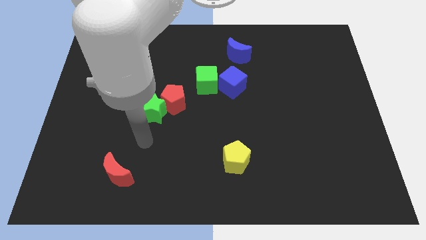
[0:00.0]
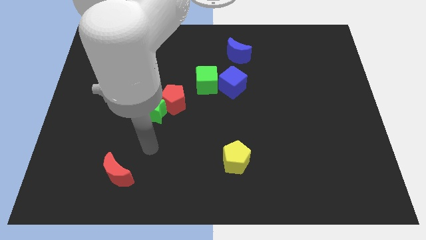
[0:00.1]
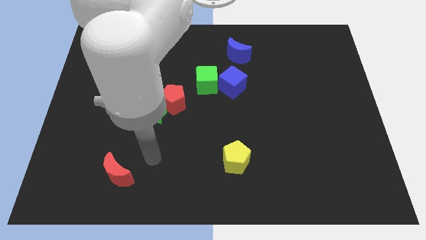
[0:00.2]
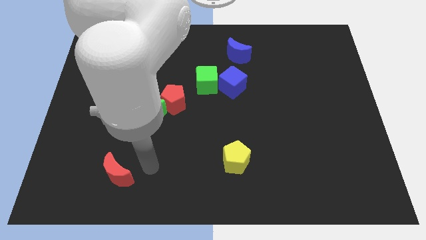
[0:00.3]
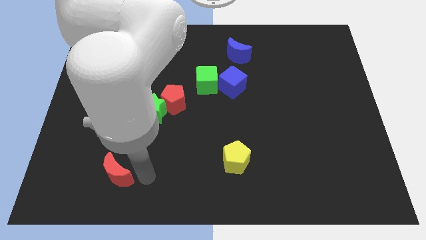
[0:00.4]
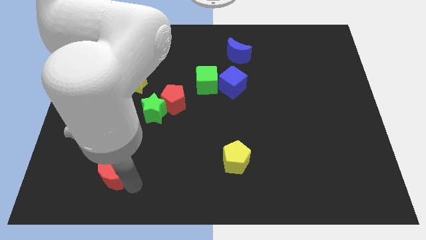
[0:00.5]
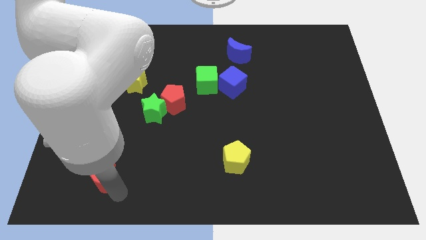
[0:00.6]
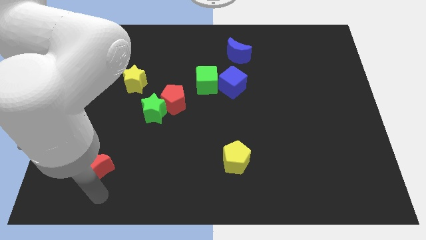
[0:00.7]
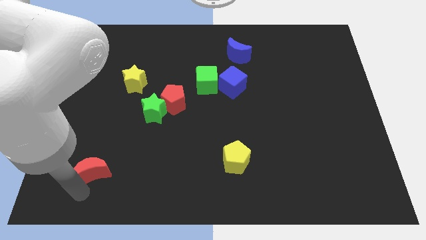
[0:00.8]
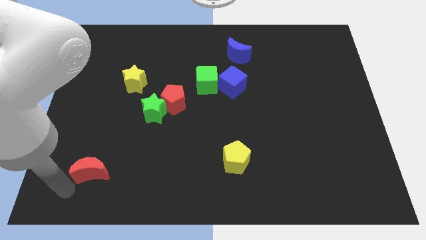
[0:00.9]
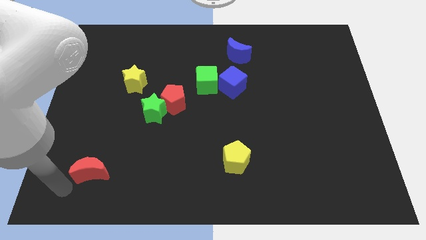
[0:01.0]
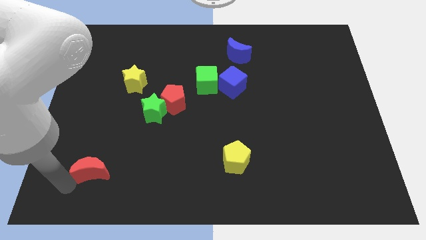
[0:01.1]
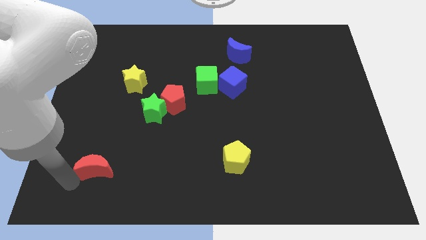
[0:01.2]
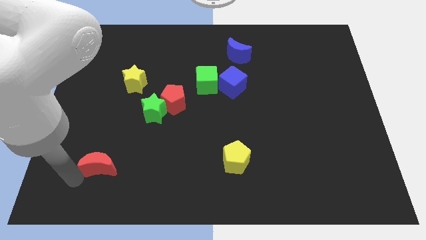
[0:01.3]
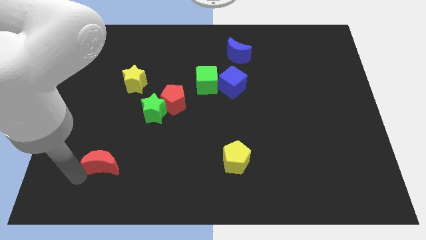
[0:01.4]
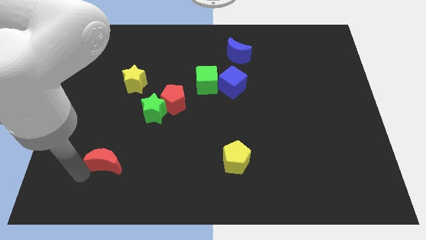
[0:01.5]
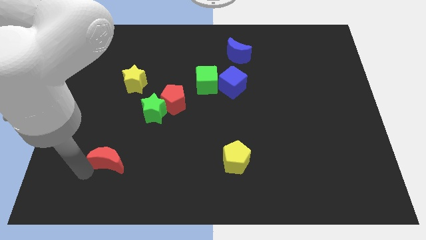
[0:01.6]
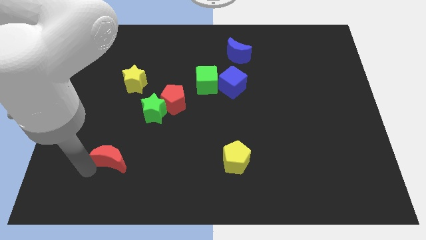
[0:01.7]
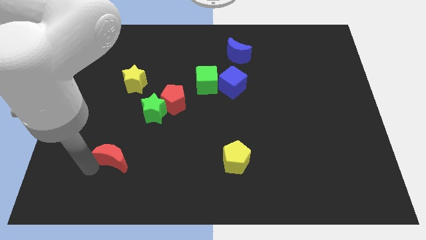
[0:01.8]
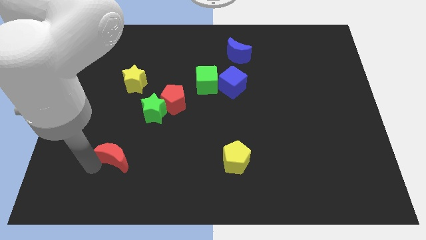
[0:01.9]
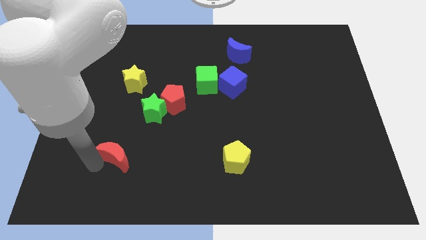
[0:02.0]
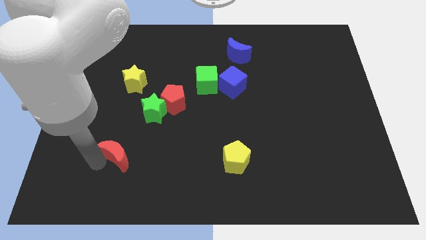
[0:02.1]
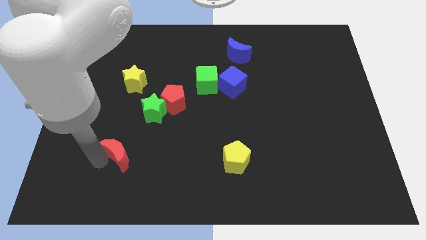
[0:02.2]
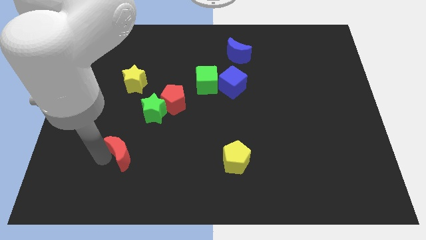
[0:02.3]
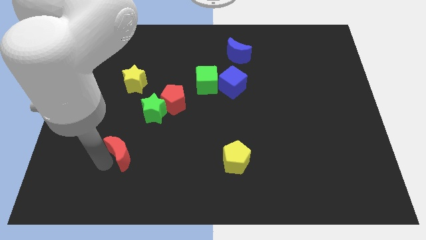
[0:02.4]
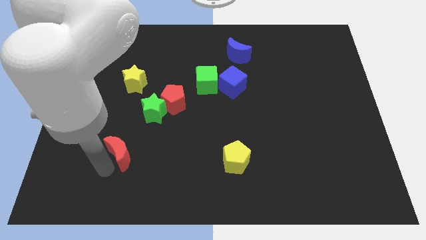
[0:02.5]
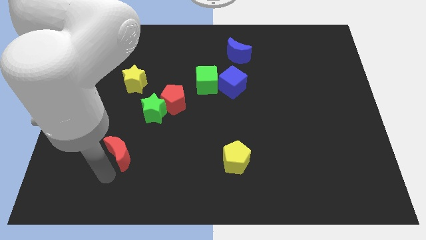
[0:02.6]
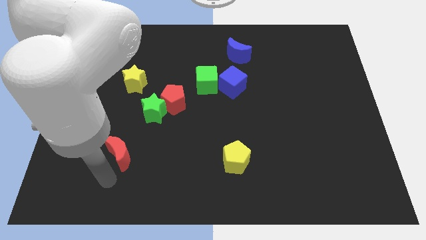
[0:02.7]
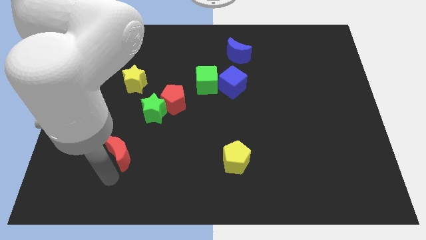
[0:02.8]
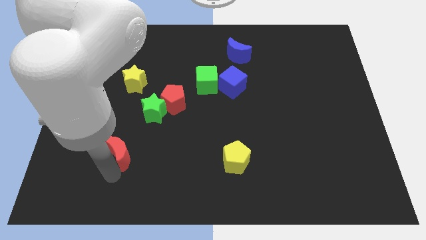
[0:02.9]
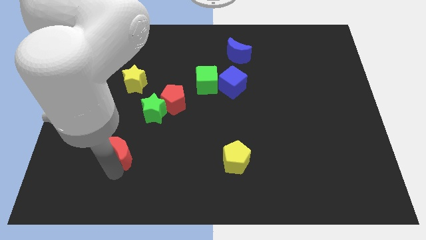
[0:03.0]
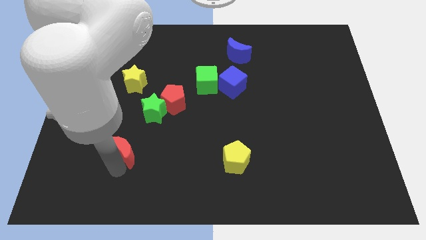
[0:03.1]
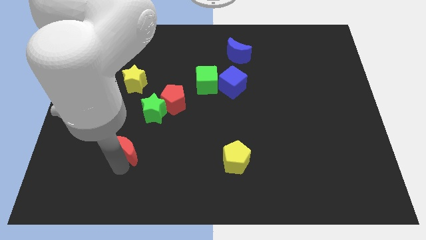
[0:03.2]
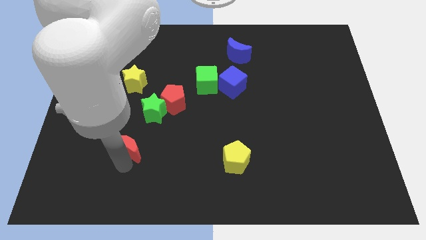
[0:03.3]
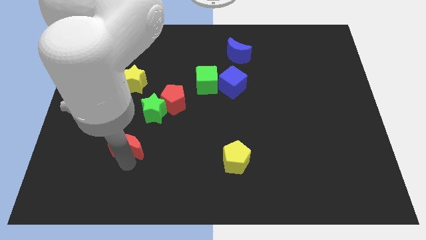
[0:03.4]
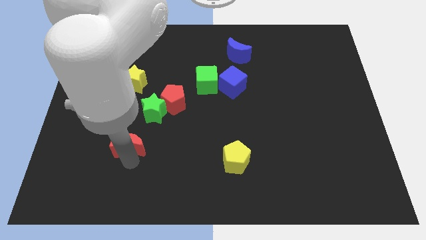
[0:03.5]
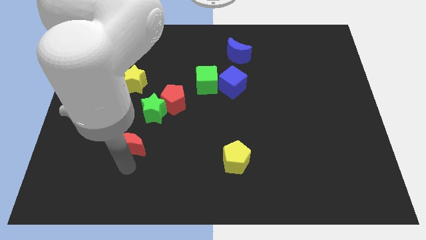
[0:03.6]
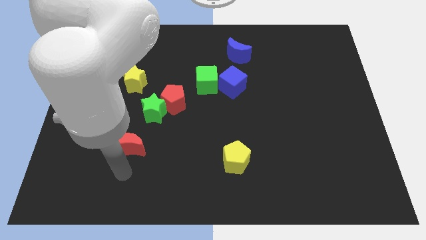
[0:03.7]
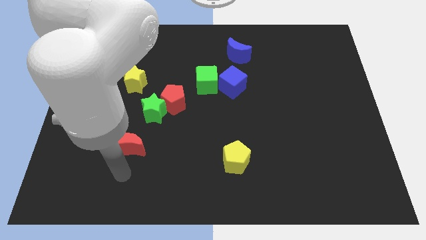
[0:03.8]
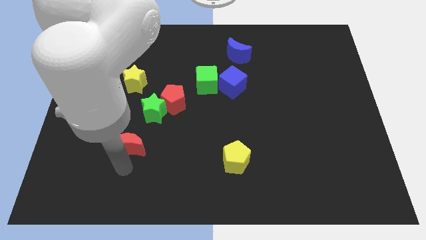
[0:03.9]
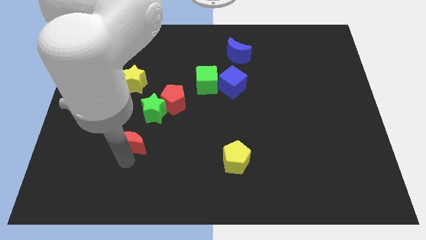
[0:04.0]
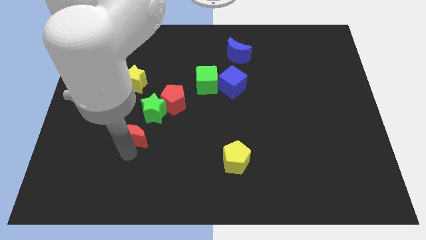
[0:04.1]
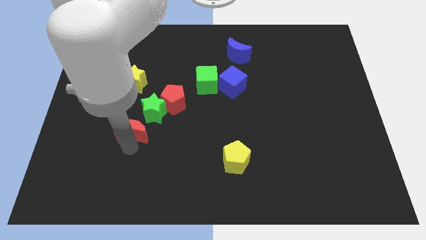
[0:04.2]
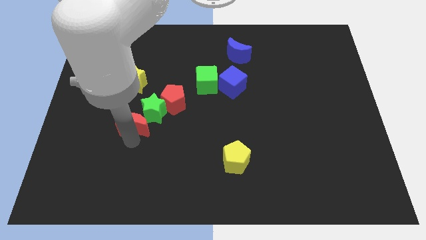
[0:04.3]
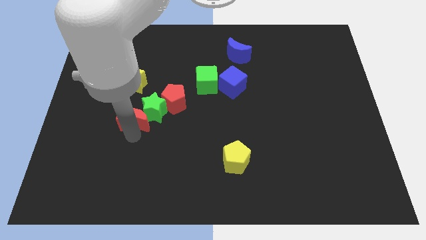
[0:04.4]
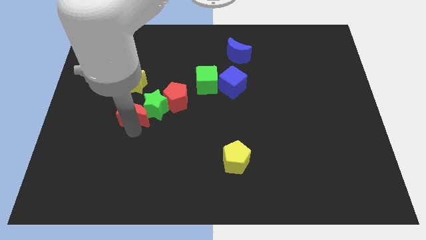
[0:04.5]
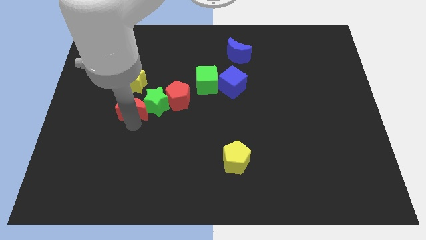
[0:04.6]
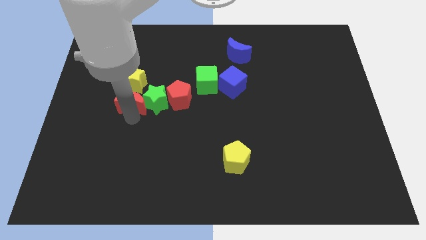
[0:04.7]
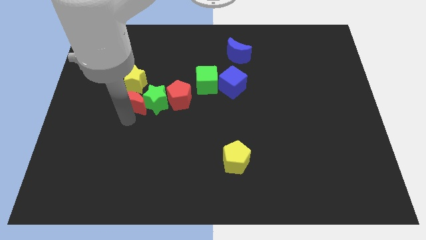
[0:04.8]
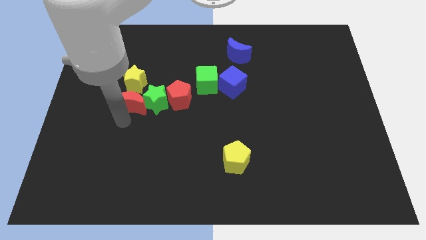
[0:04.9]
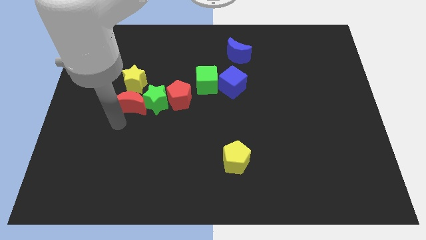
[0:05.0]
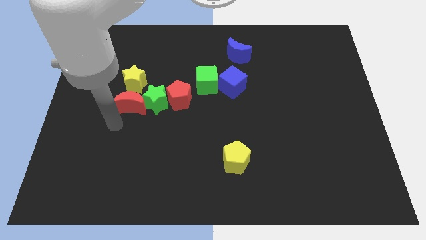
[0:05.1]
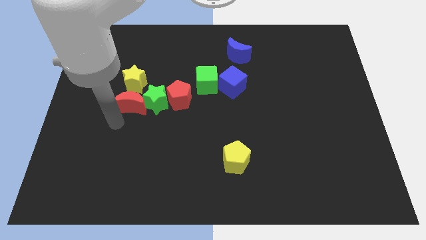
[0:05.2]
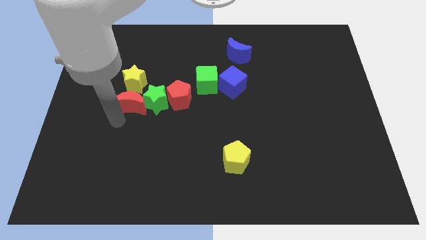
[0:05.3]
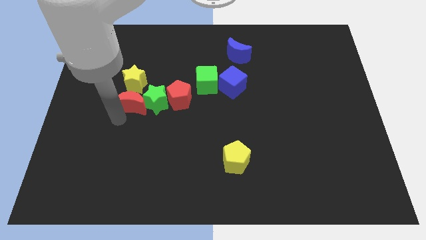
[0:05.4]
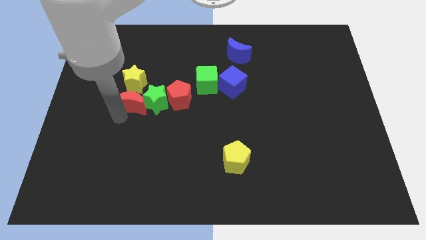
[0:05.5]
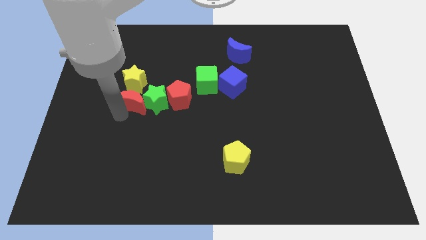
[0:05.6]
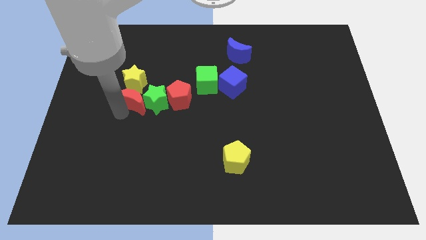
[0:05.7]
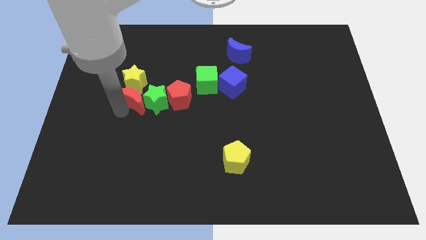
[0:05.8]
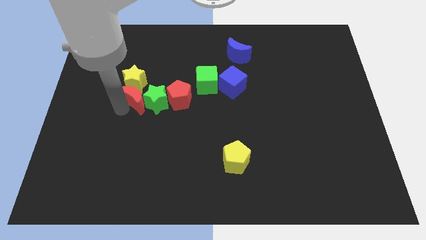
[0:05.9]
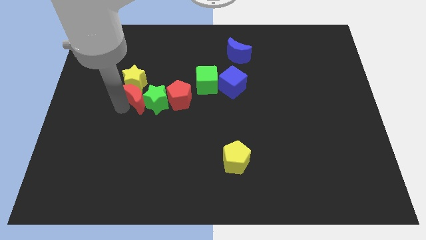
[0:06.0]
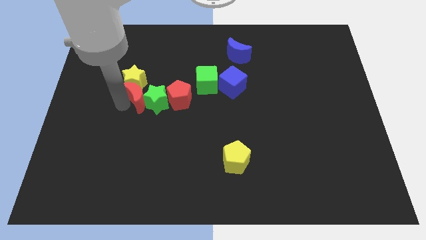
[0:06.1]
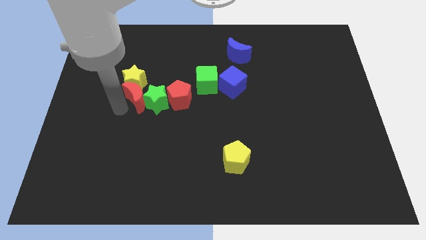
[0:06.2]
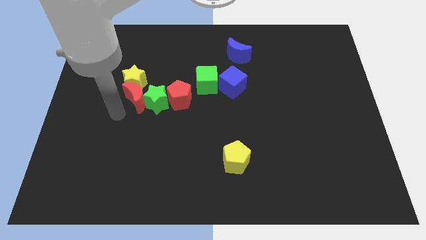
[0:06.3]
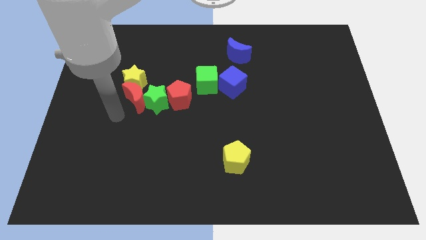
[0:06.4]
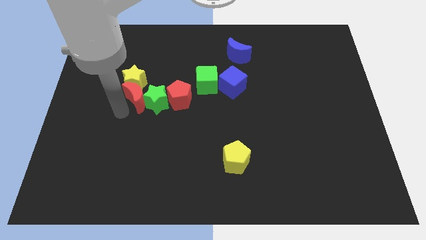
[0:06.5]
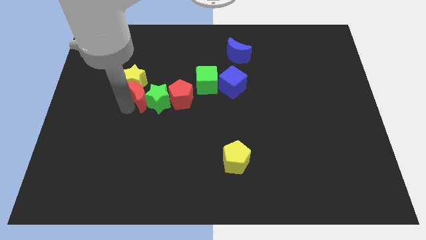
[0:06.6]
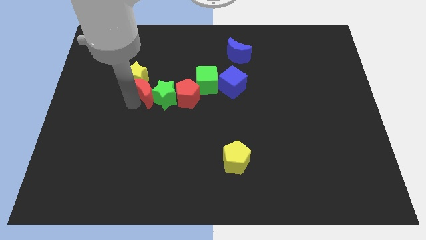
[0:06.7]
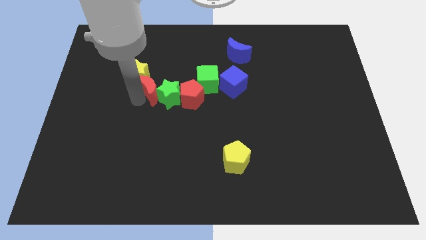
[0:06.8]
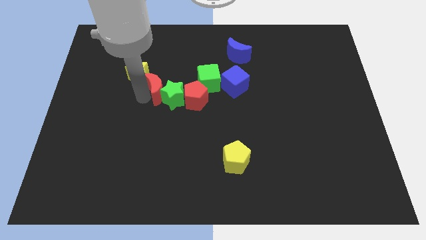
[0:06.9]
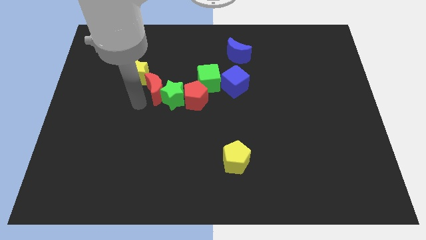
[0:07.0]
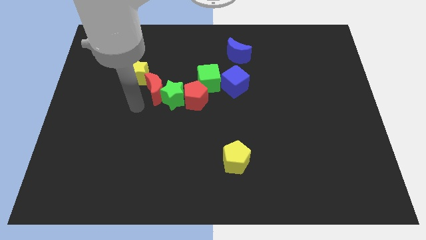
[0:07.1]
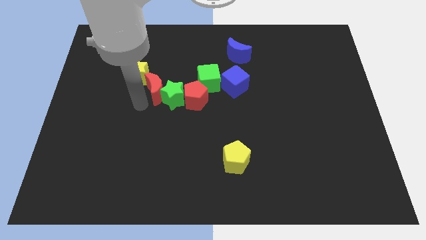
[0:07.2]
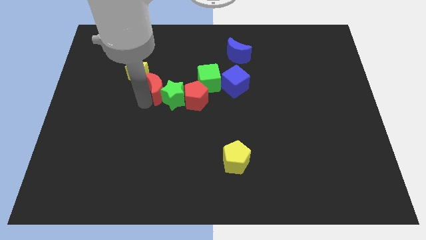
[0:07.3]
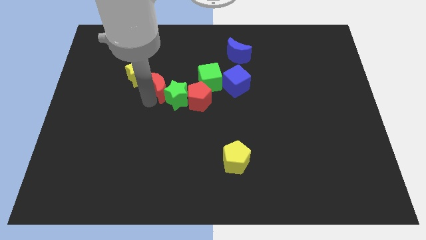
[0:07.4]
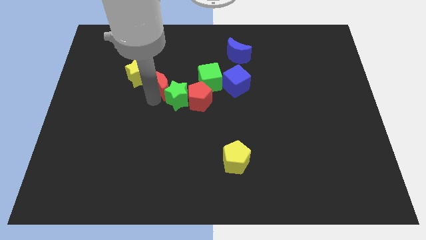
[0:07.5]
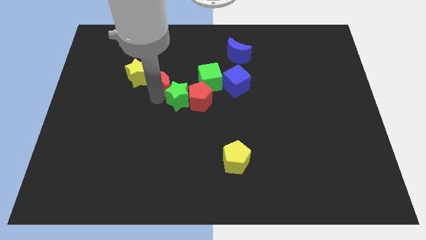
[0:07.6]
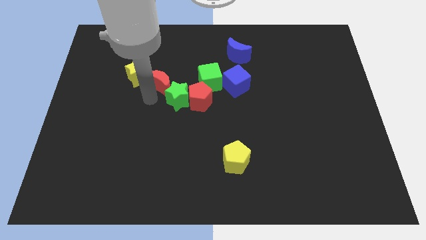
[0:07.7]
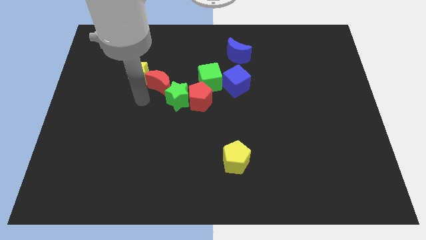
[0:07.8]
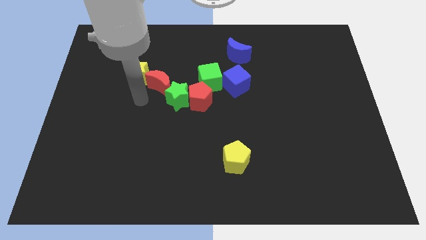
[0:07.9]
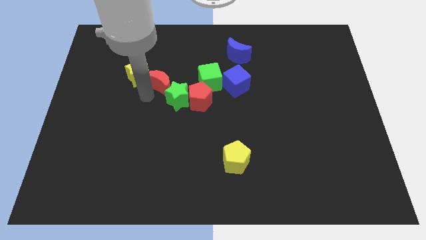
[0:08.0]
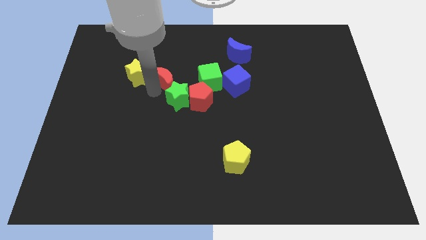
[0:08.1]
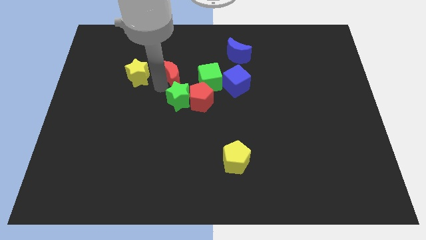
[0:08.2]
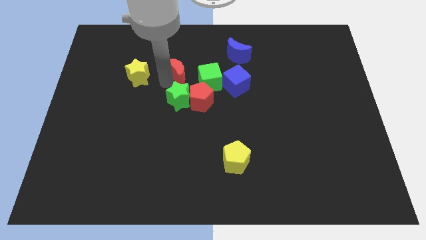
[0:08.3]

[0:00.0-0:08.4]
move the red moon to the top left of the green cube
